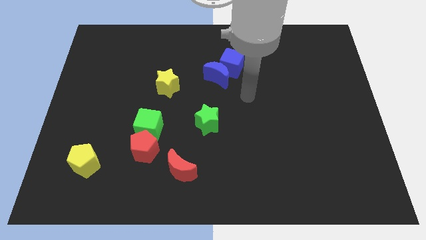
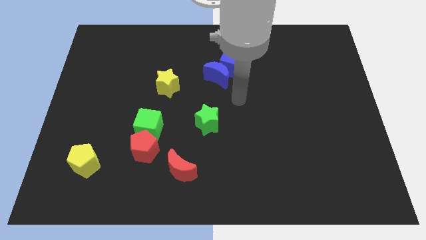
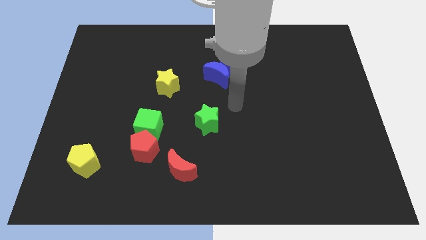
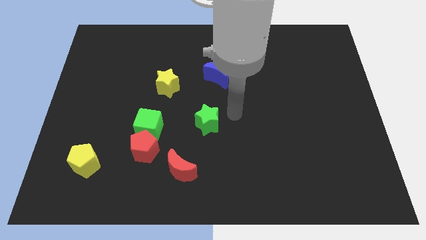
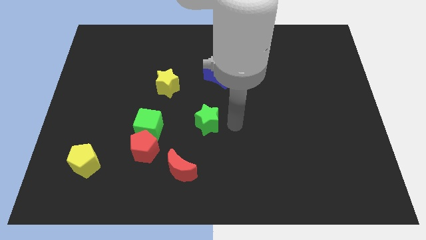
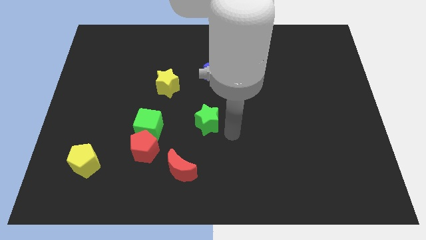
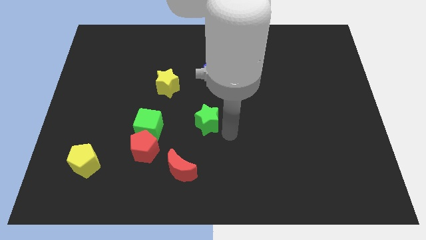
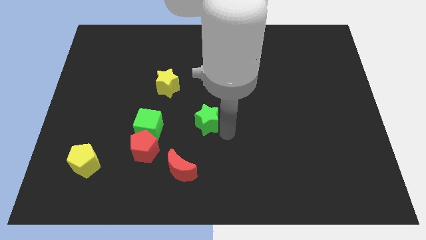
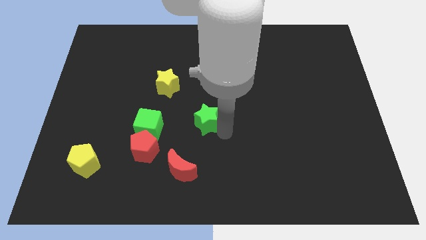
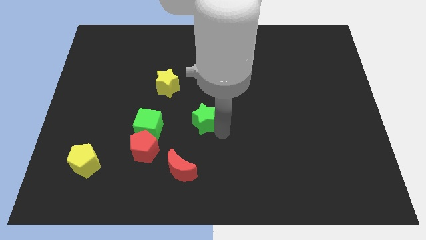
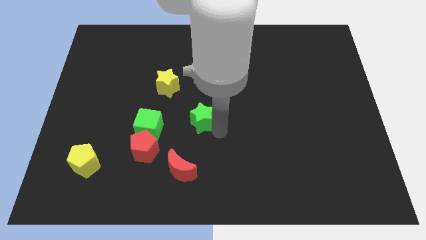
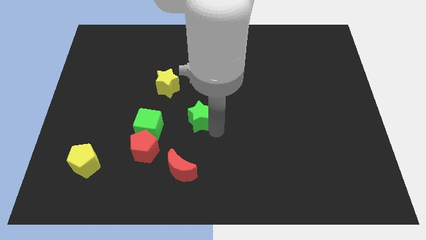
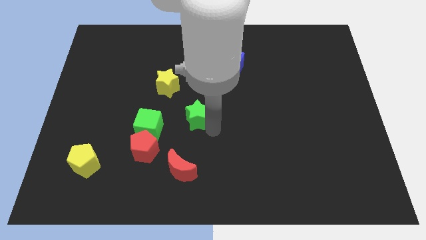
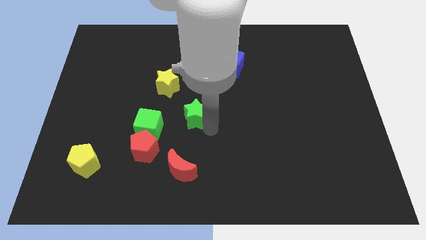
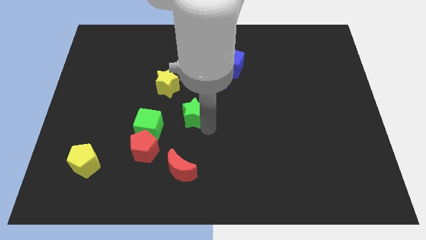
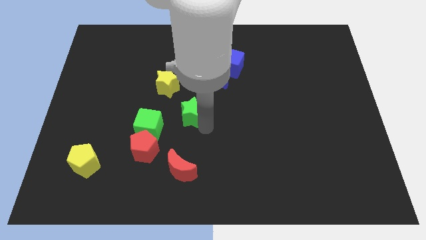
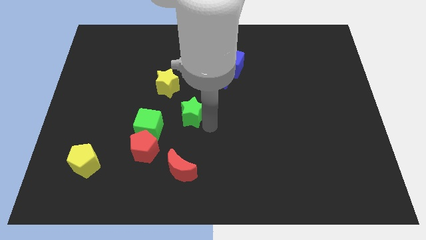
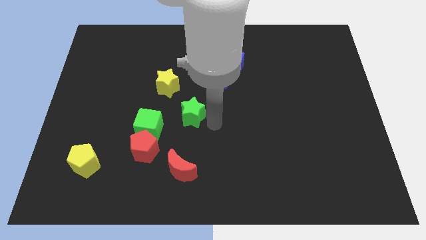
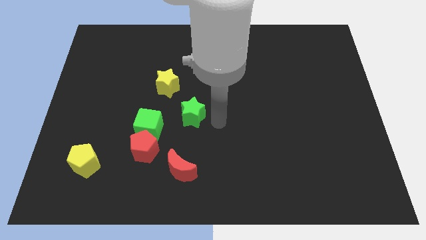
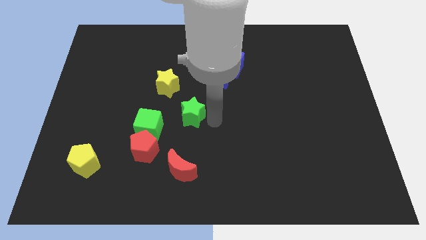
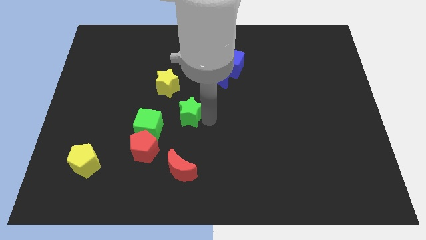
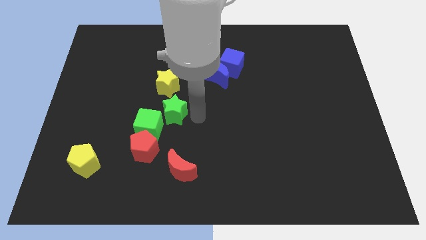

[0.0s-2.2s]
slightly move the green star diagonally upwards and to the left

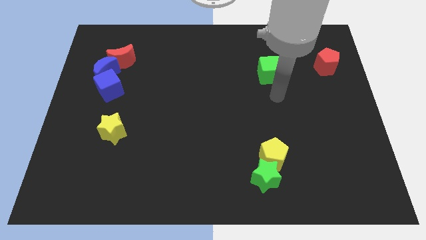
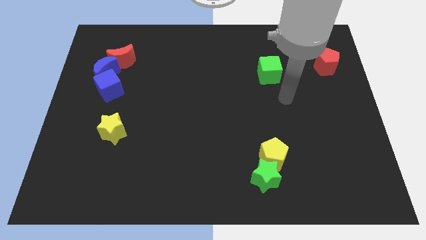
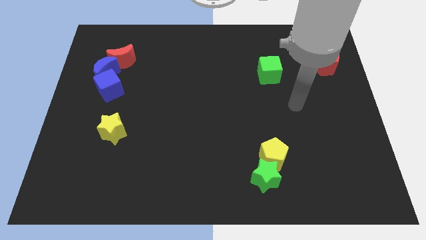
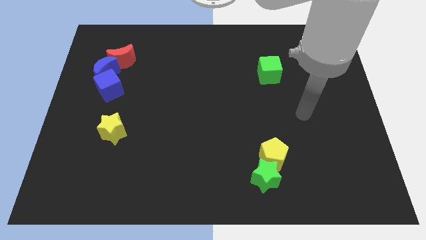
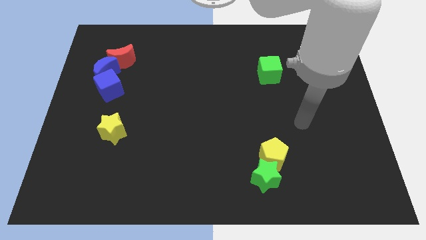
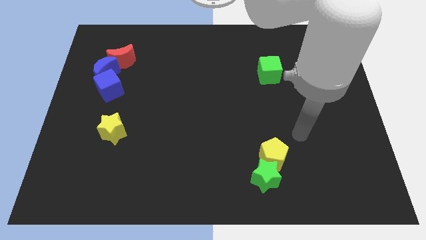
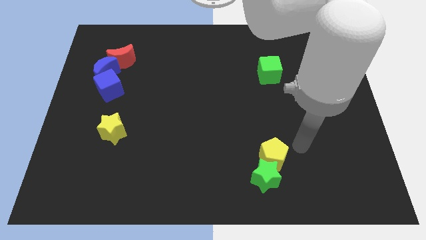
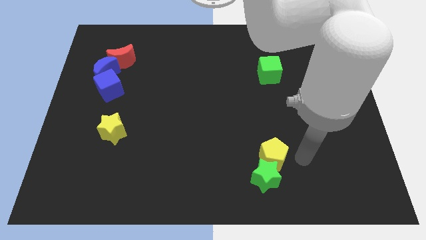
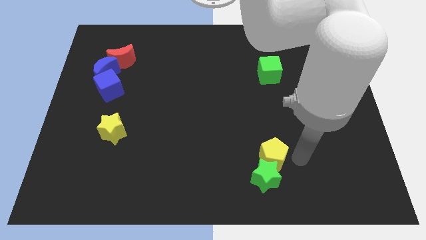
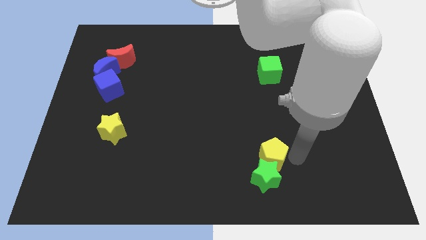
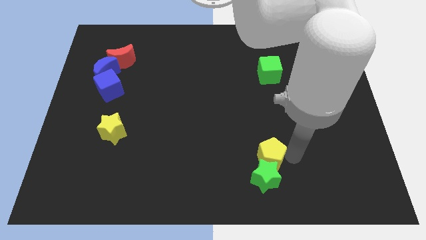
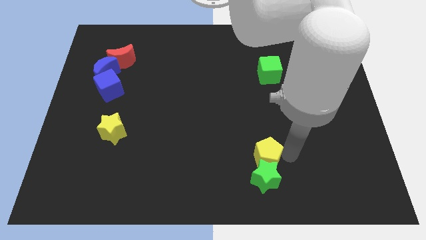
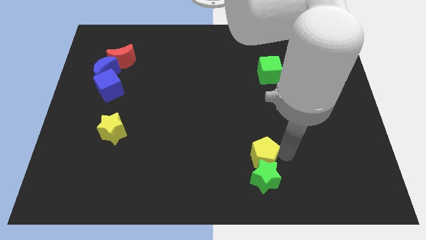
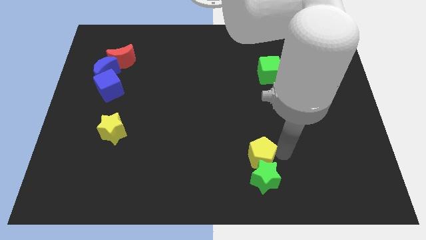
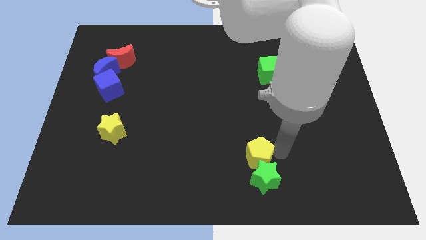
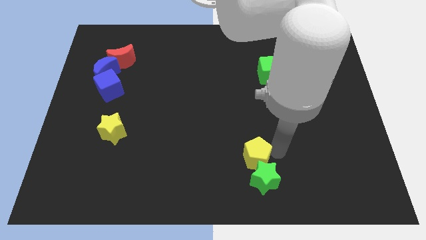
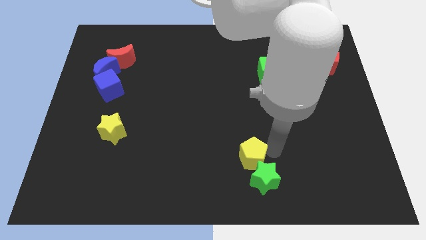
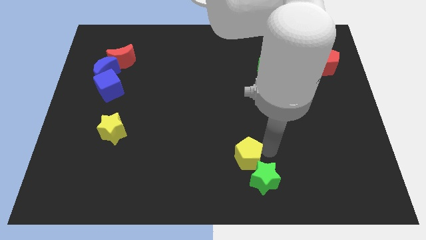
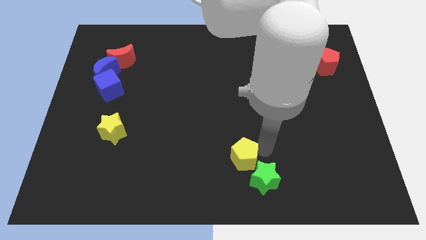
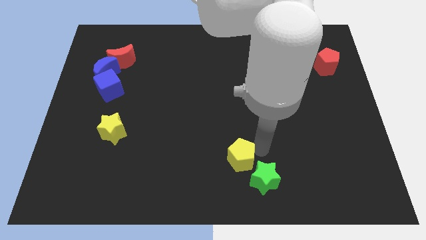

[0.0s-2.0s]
push the yellow pentagon somewhat left

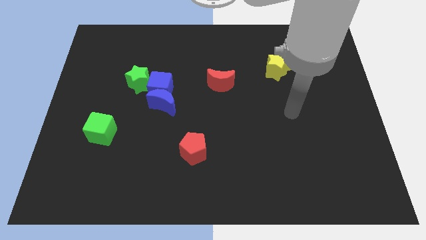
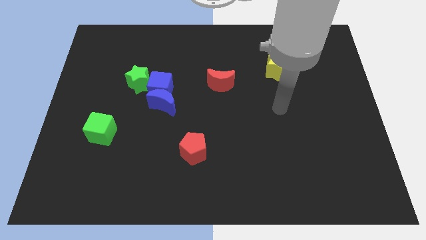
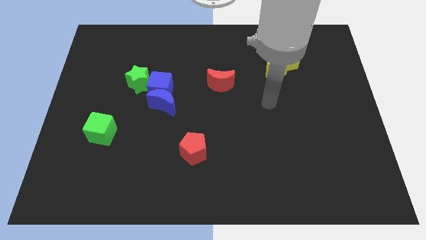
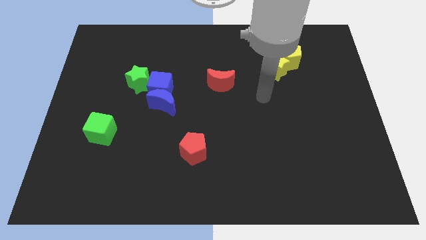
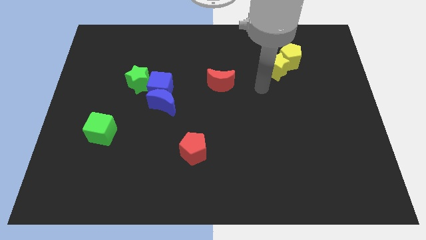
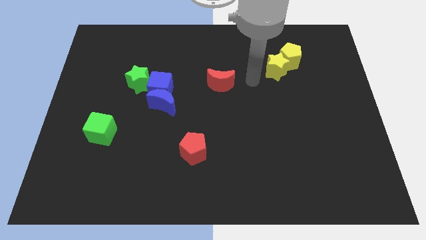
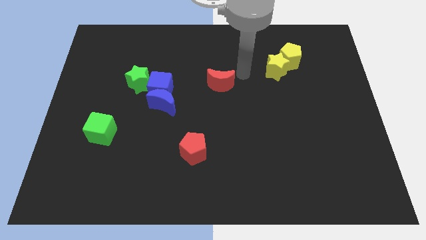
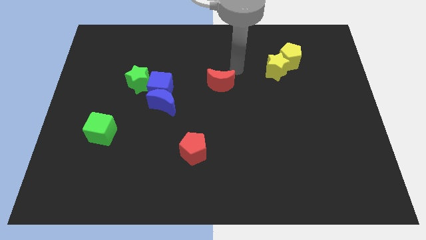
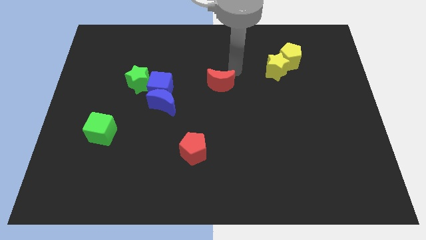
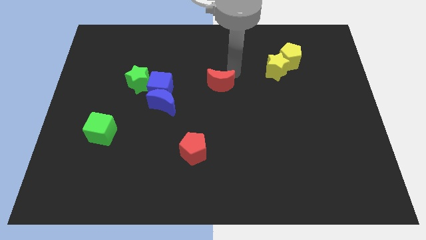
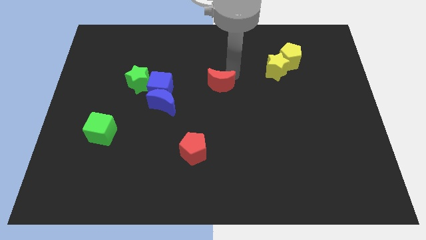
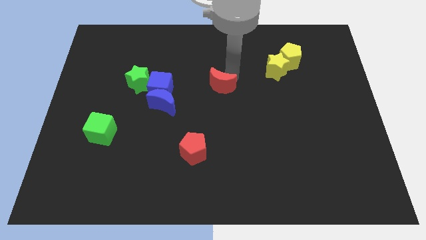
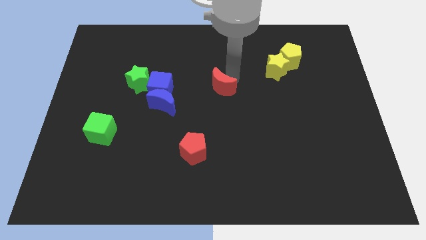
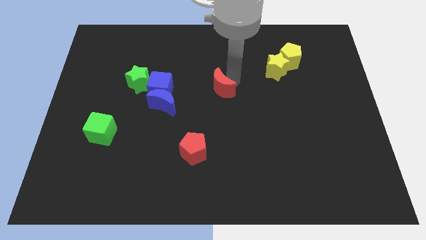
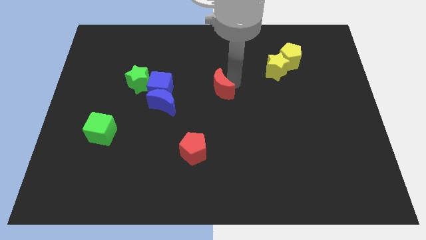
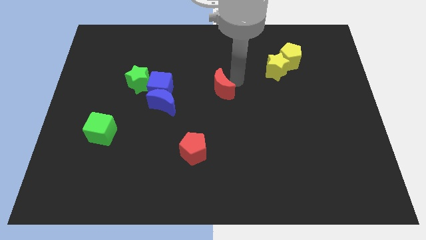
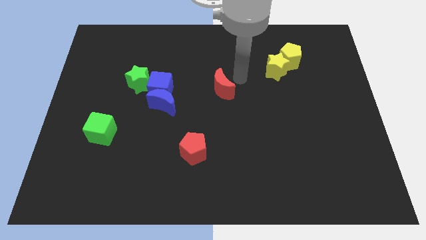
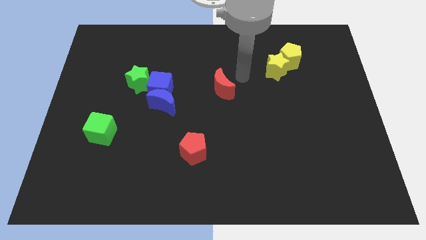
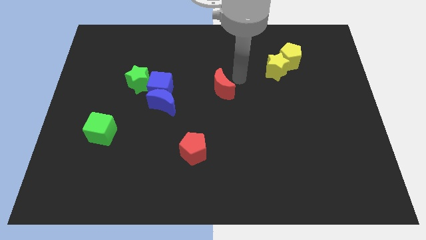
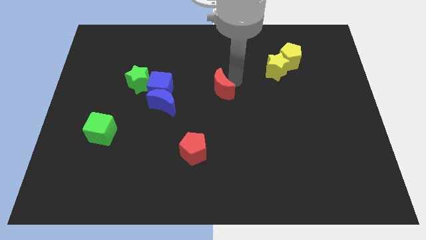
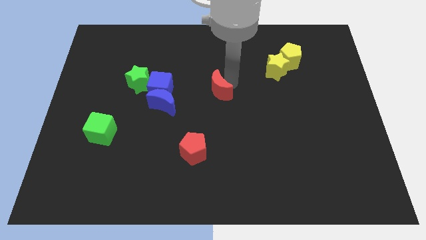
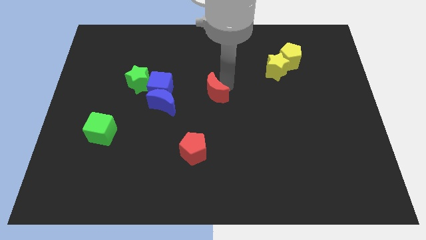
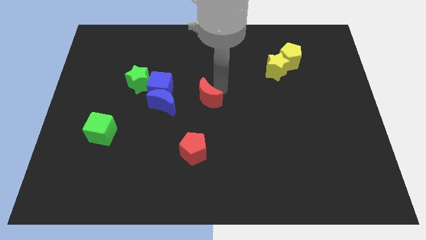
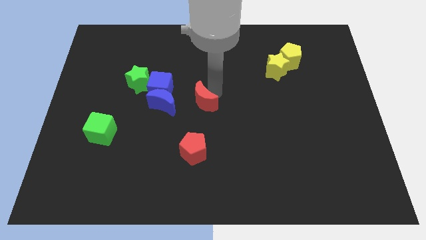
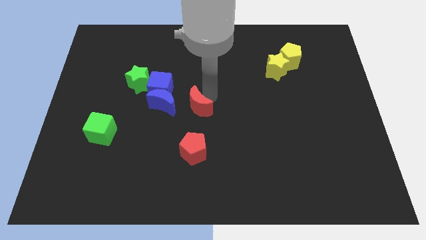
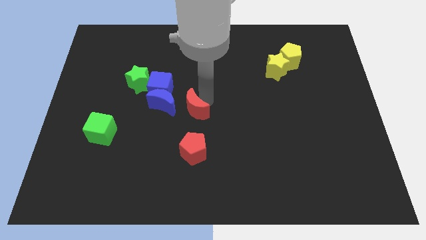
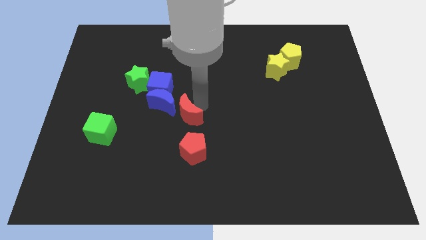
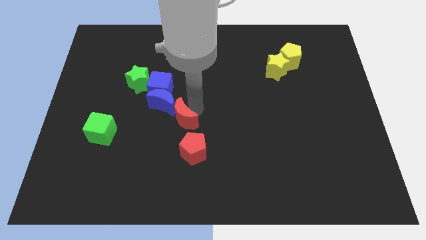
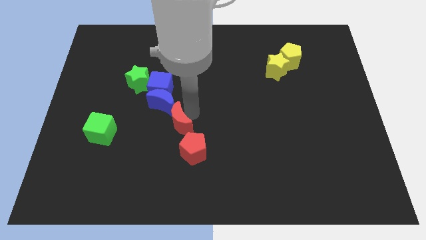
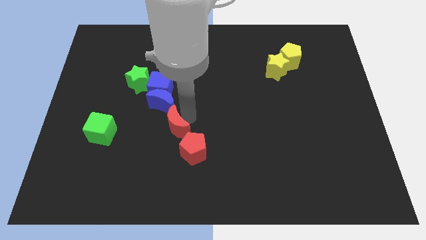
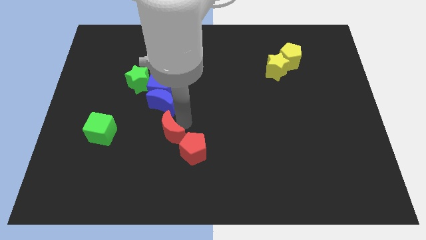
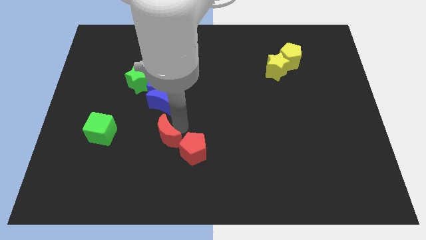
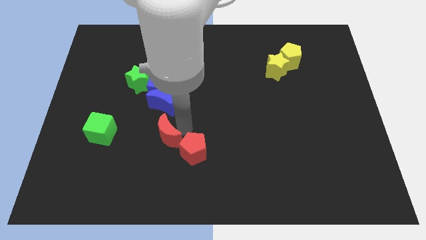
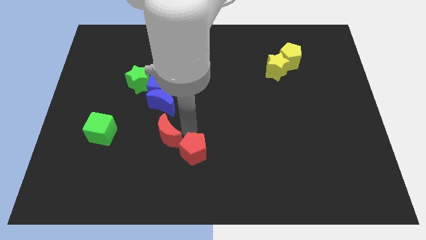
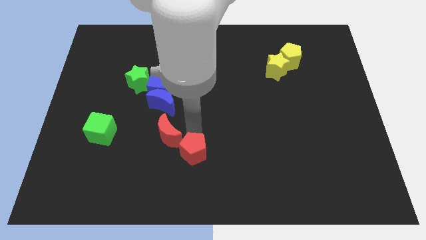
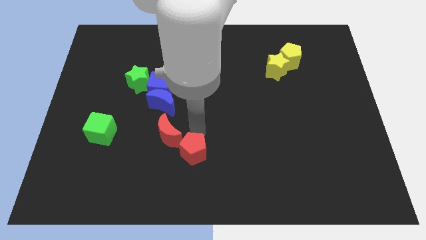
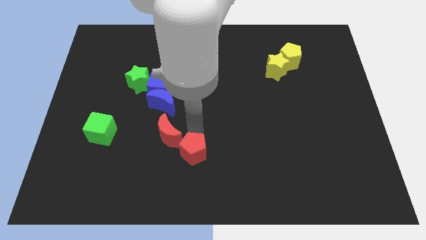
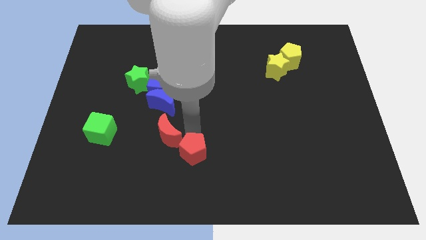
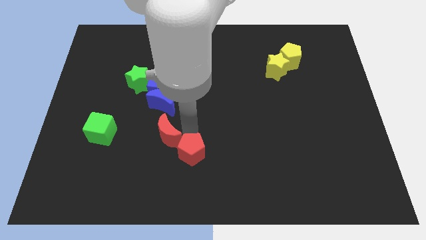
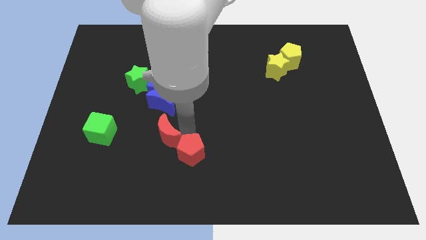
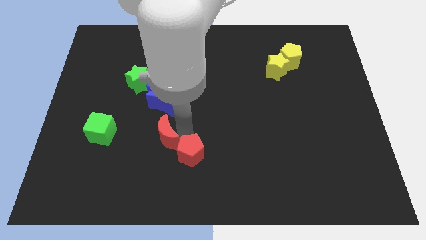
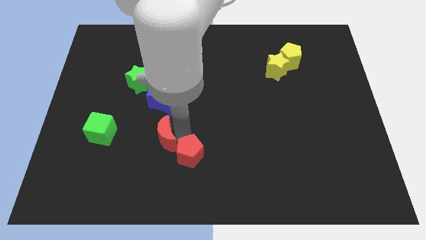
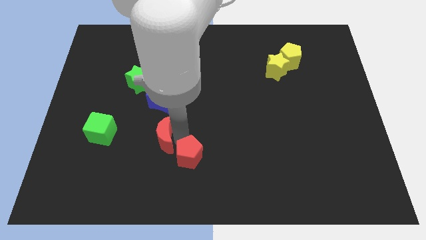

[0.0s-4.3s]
push the red moon diagonally downwards and to the left

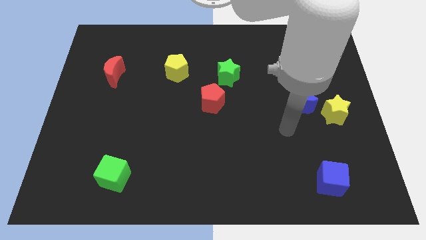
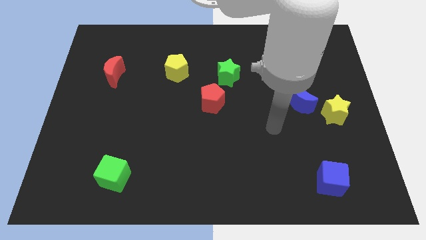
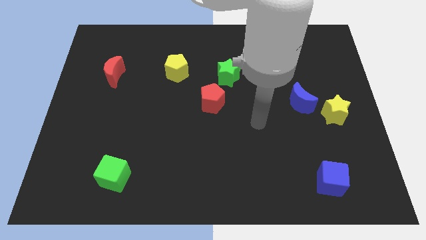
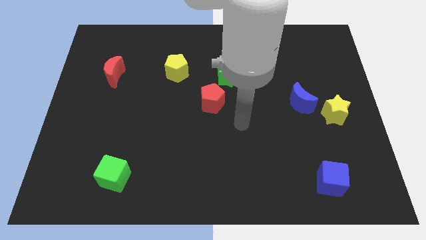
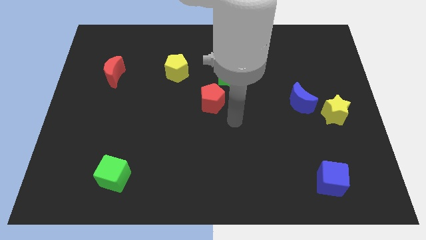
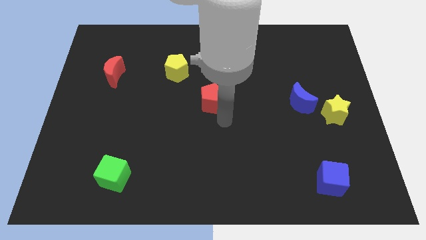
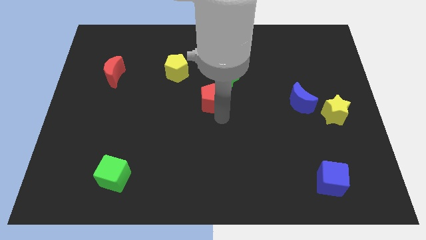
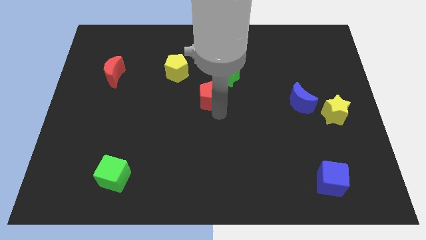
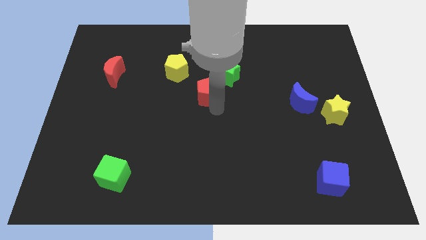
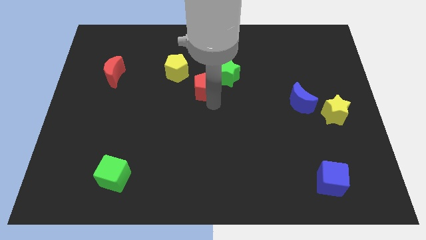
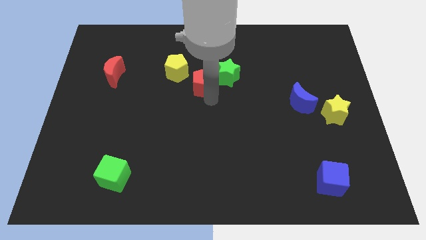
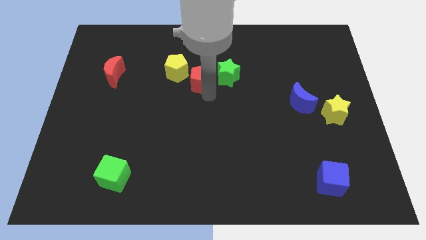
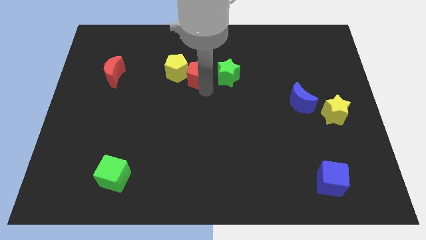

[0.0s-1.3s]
push the red pentagon up and to the left a bit
